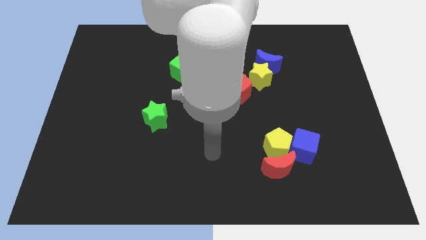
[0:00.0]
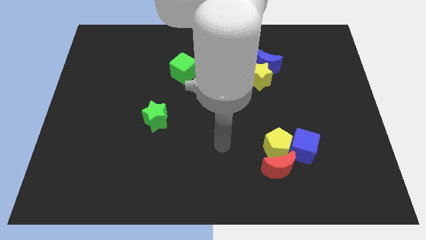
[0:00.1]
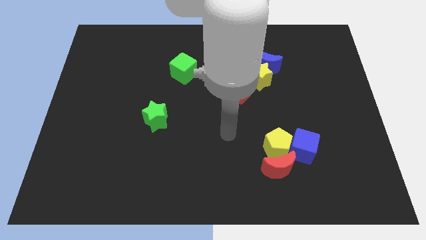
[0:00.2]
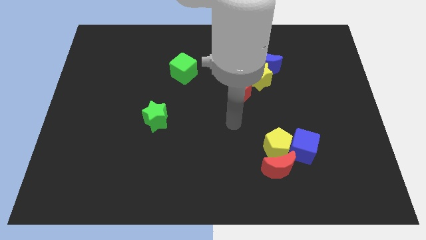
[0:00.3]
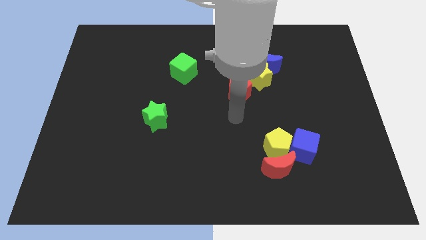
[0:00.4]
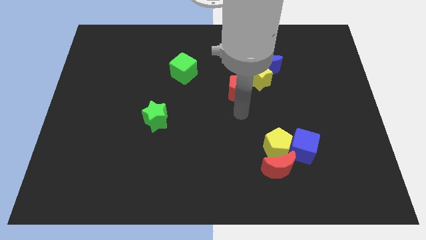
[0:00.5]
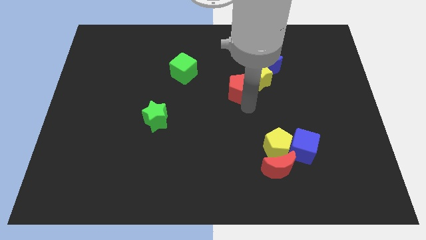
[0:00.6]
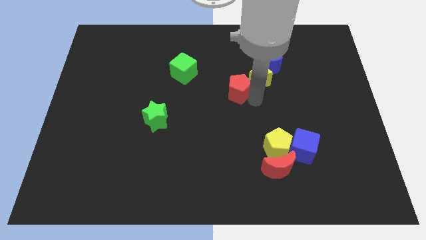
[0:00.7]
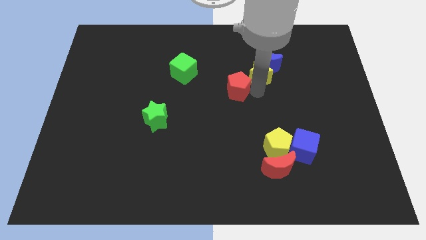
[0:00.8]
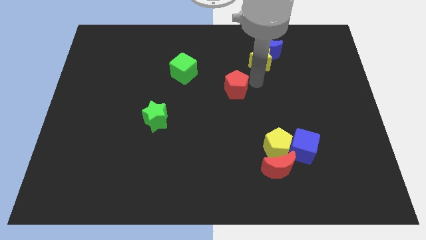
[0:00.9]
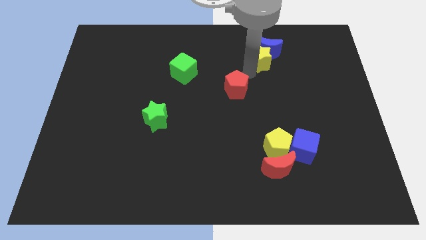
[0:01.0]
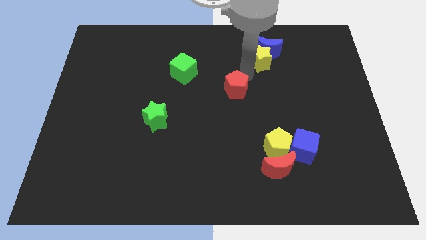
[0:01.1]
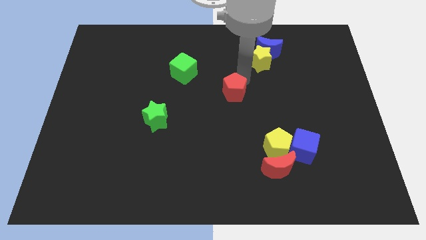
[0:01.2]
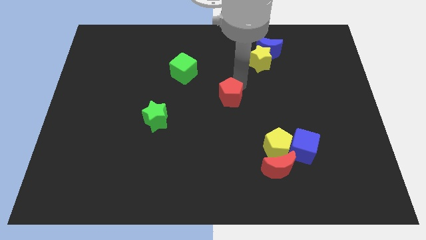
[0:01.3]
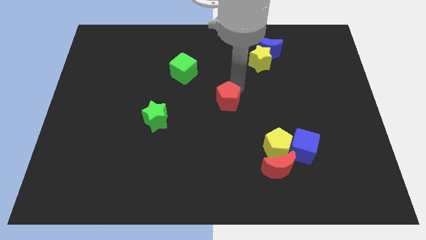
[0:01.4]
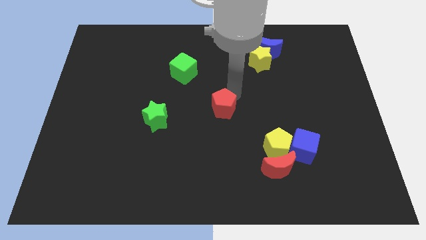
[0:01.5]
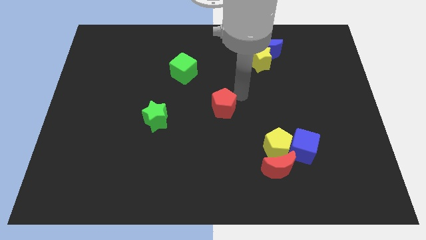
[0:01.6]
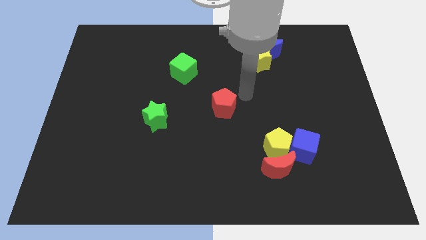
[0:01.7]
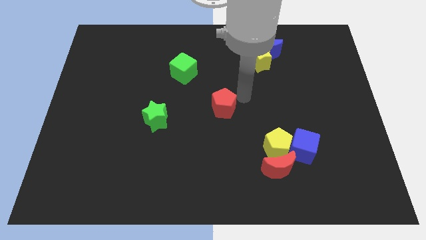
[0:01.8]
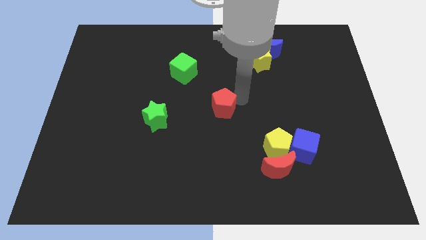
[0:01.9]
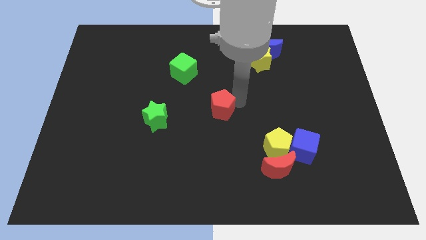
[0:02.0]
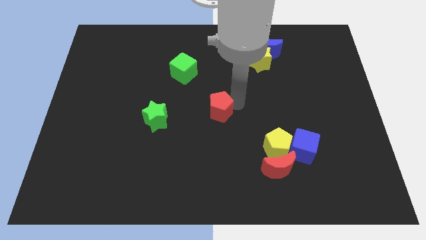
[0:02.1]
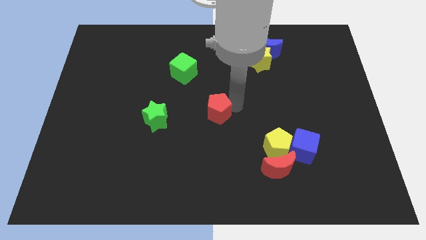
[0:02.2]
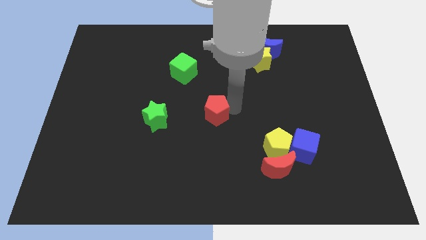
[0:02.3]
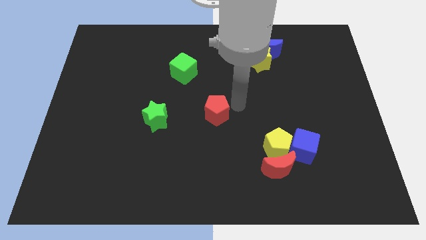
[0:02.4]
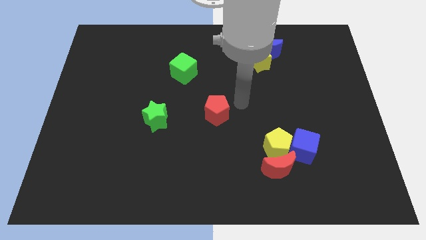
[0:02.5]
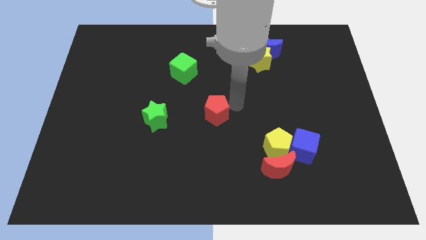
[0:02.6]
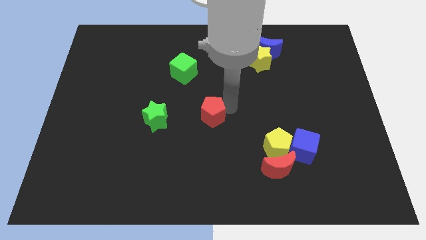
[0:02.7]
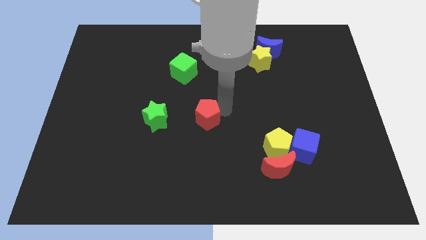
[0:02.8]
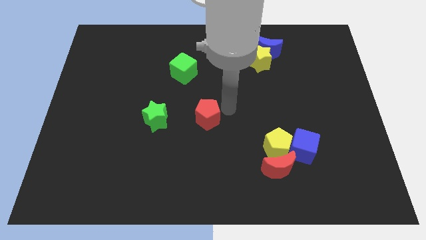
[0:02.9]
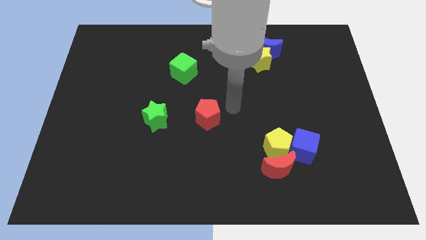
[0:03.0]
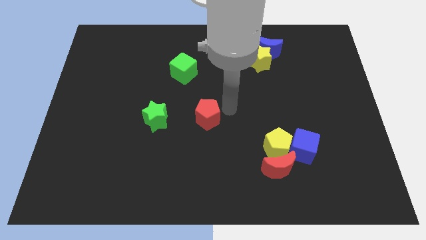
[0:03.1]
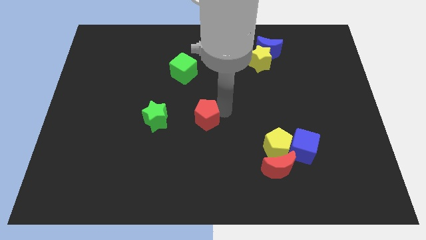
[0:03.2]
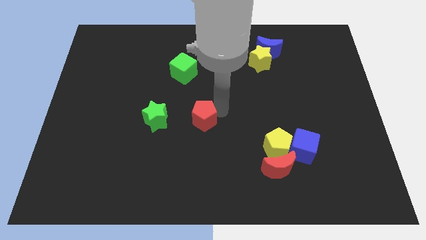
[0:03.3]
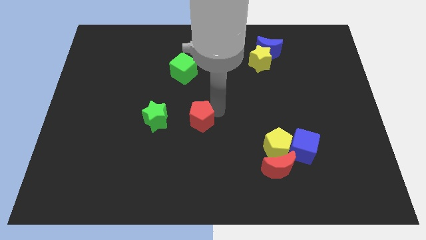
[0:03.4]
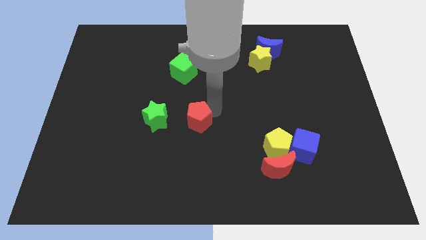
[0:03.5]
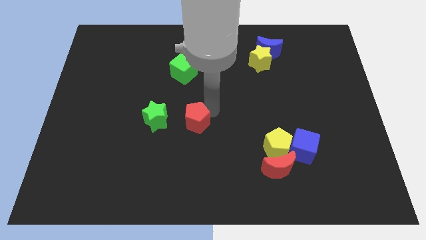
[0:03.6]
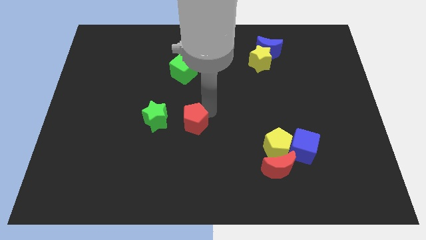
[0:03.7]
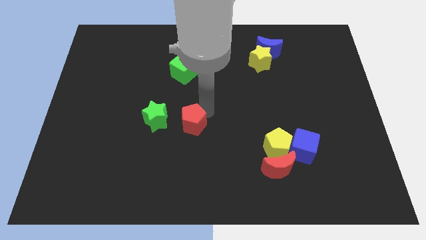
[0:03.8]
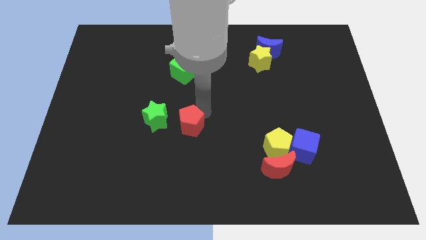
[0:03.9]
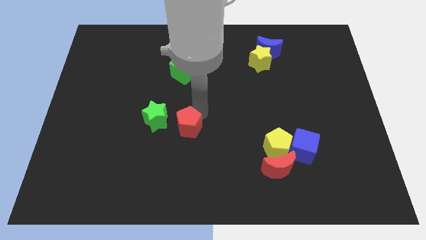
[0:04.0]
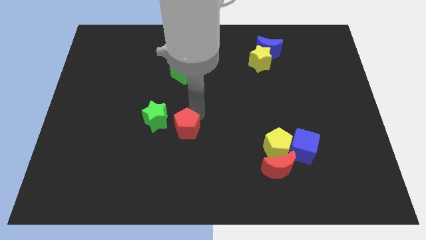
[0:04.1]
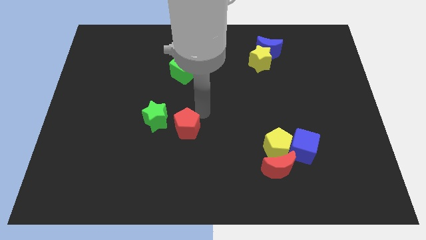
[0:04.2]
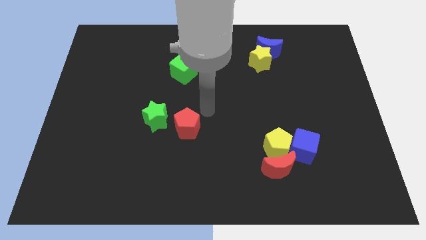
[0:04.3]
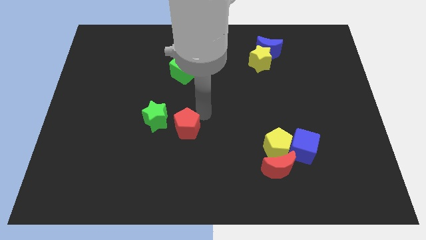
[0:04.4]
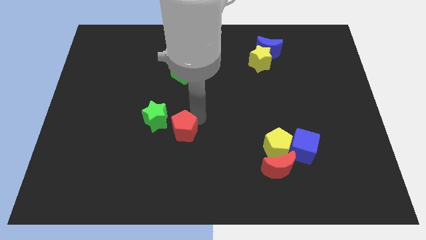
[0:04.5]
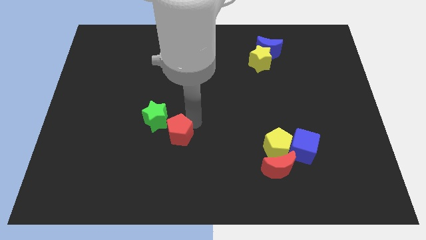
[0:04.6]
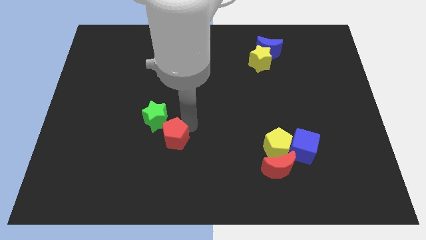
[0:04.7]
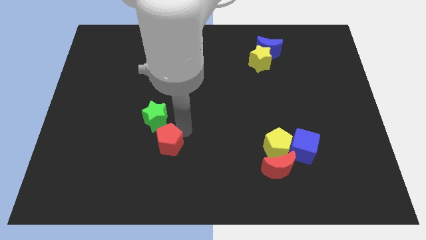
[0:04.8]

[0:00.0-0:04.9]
put the red pentagon to the bottom side of the green star

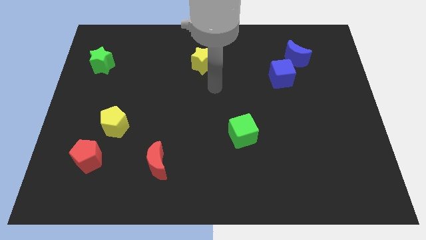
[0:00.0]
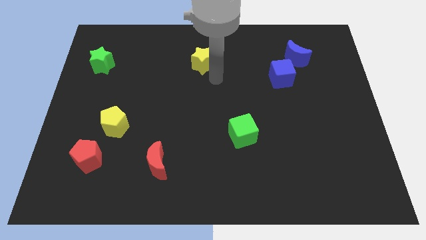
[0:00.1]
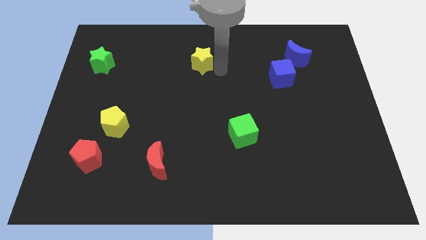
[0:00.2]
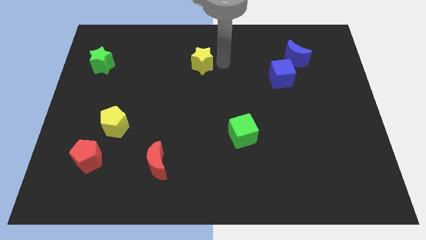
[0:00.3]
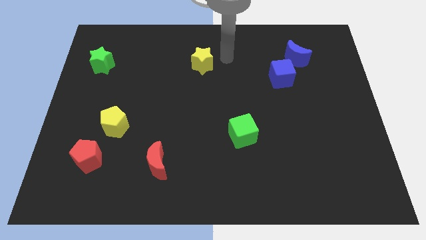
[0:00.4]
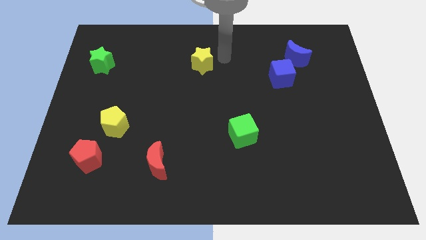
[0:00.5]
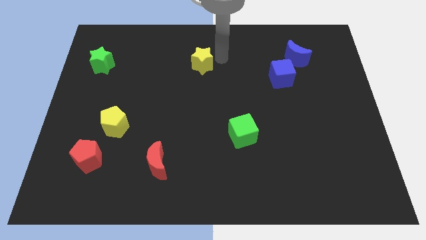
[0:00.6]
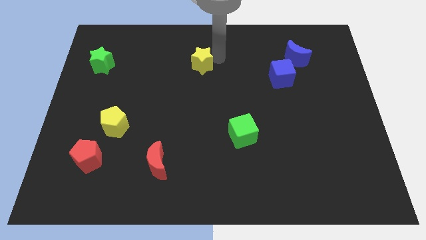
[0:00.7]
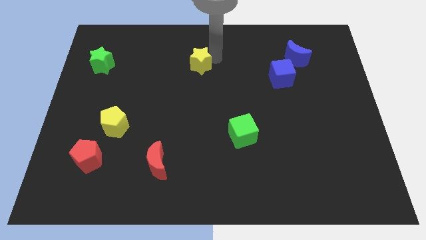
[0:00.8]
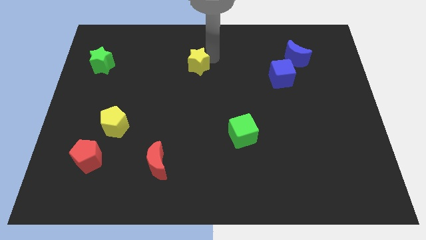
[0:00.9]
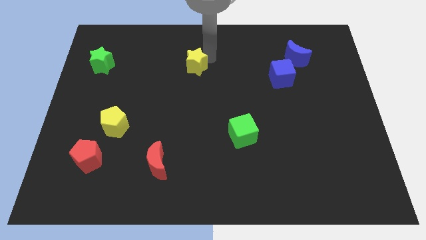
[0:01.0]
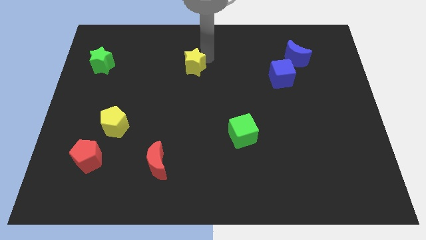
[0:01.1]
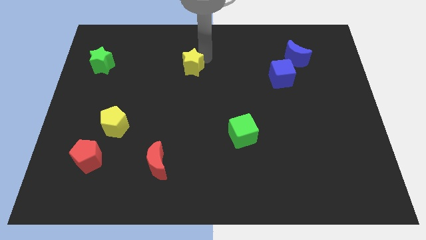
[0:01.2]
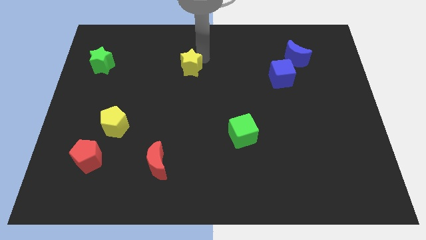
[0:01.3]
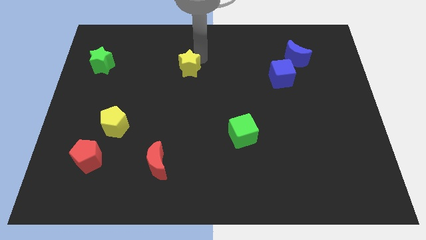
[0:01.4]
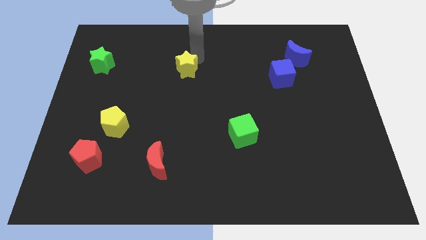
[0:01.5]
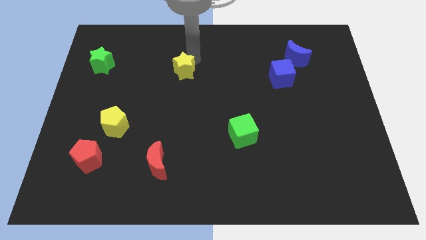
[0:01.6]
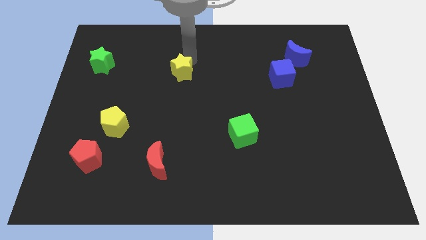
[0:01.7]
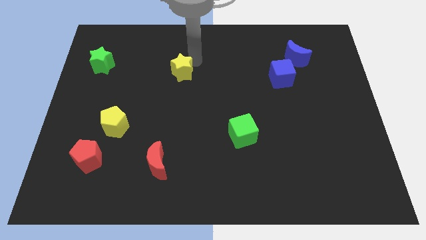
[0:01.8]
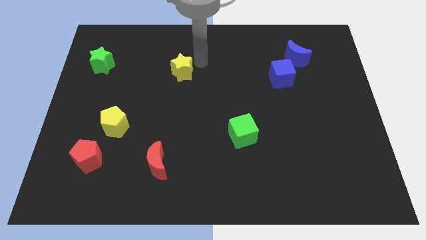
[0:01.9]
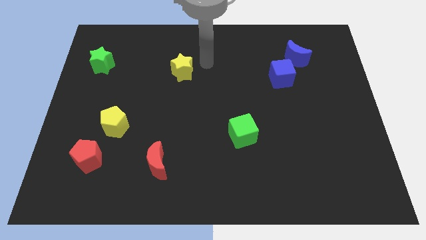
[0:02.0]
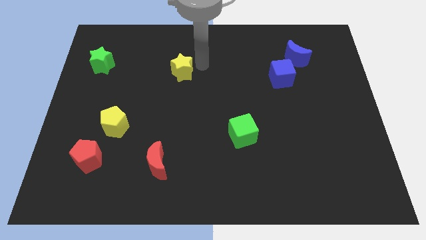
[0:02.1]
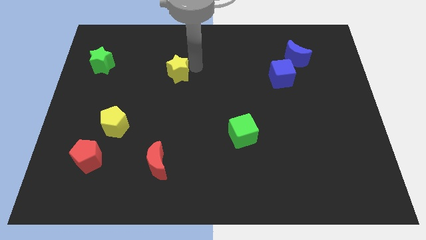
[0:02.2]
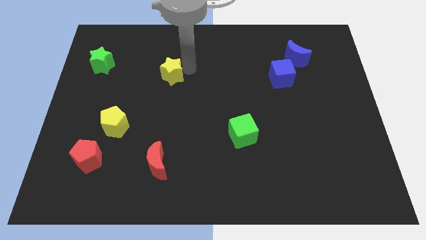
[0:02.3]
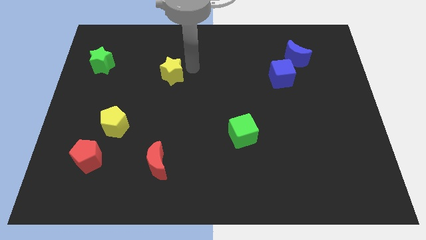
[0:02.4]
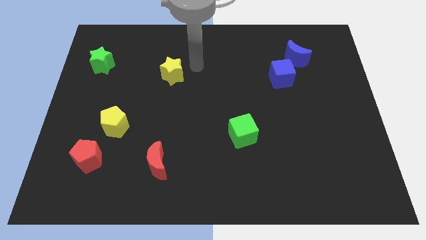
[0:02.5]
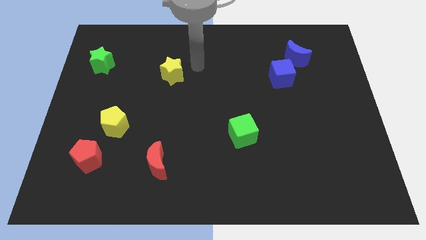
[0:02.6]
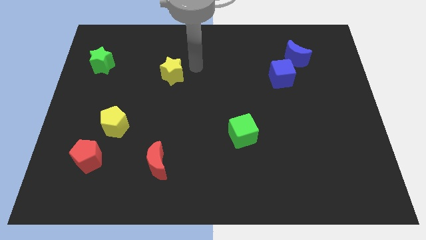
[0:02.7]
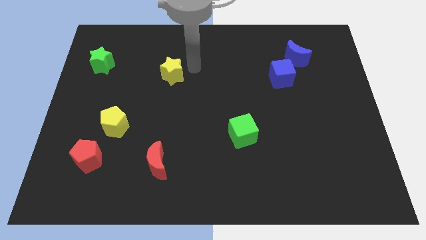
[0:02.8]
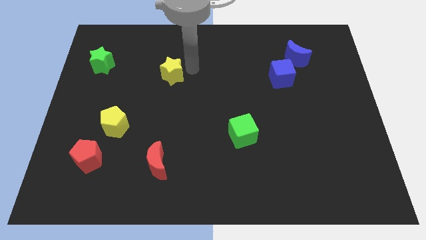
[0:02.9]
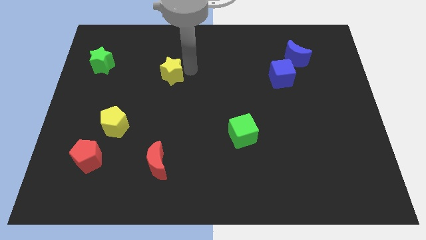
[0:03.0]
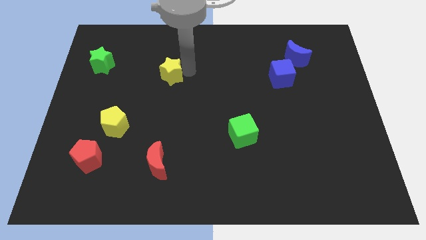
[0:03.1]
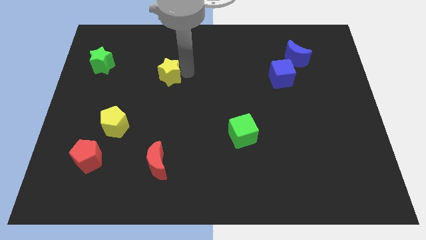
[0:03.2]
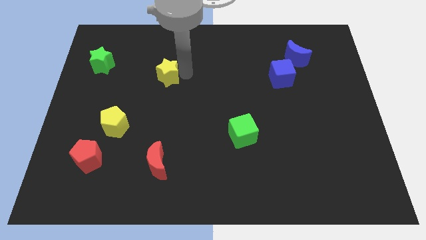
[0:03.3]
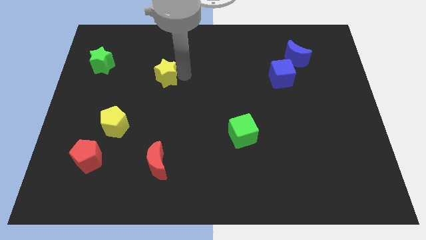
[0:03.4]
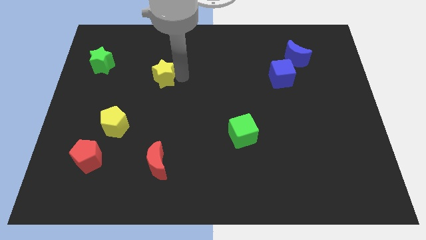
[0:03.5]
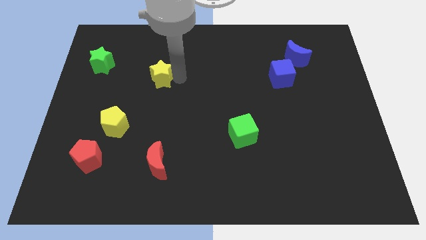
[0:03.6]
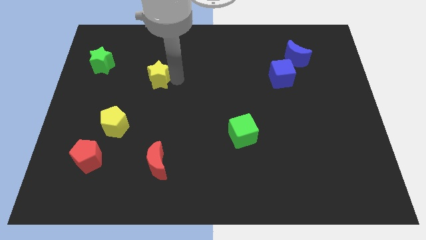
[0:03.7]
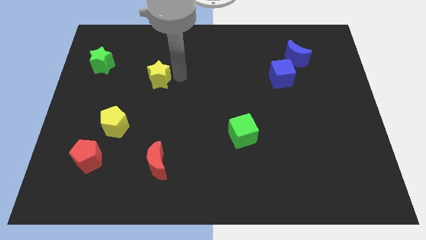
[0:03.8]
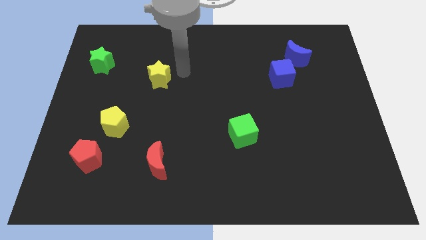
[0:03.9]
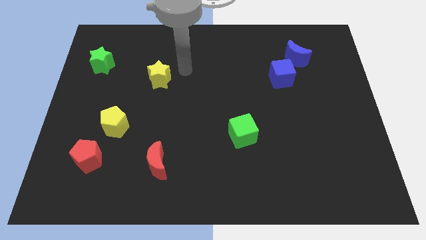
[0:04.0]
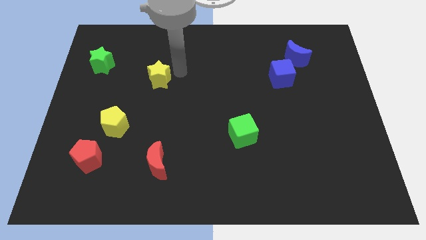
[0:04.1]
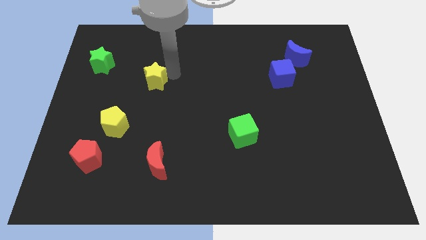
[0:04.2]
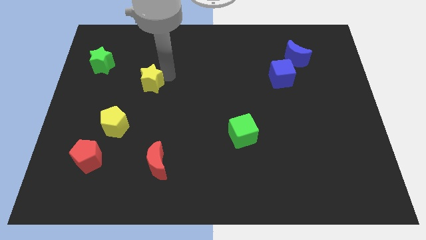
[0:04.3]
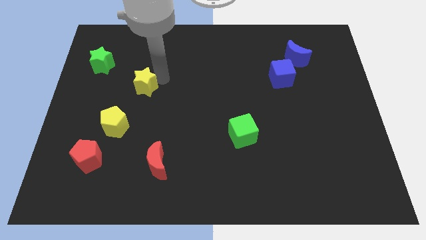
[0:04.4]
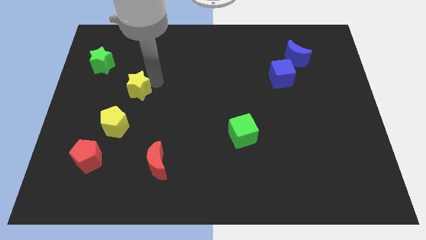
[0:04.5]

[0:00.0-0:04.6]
slide the yellow star to the top side of the yellow pentagon
